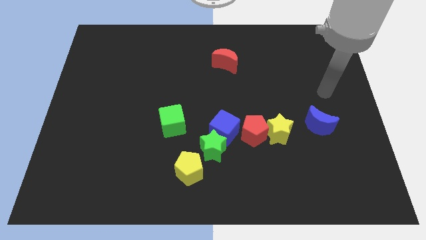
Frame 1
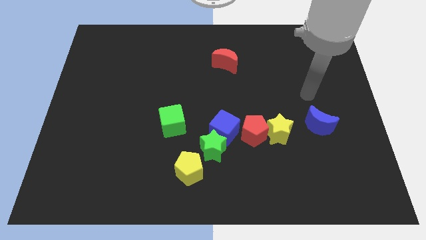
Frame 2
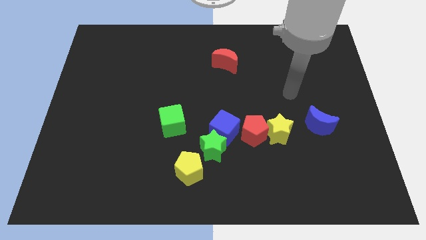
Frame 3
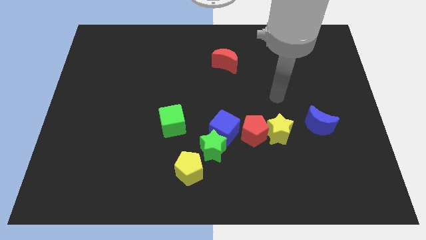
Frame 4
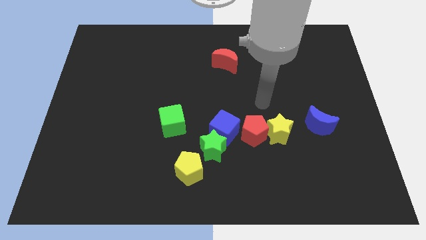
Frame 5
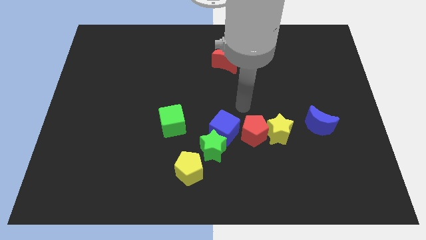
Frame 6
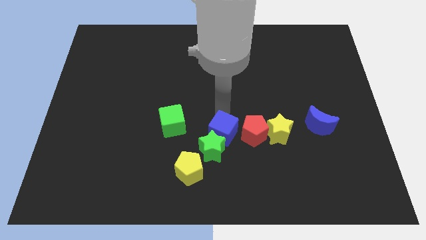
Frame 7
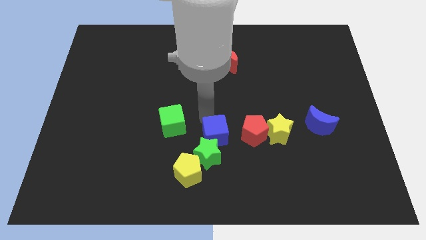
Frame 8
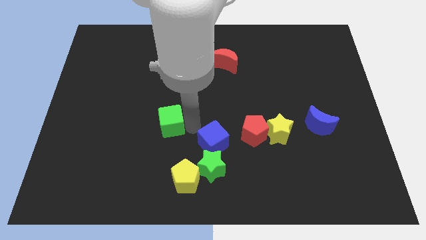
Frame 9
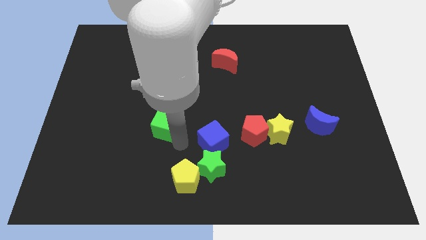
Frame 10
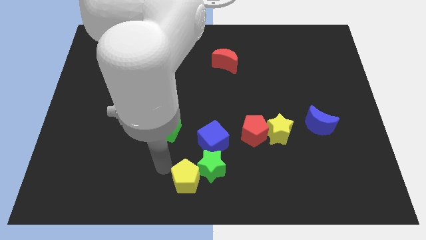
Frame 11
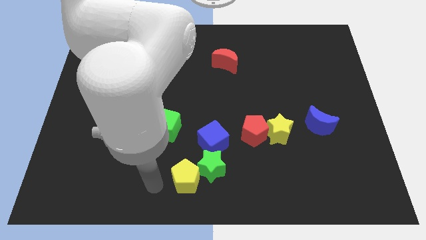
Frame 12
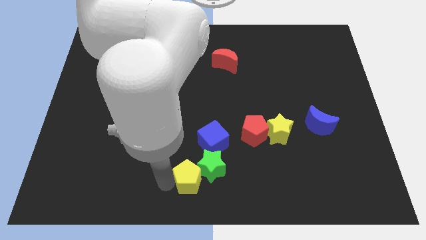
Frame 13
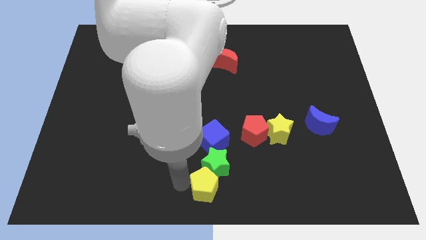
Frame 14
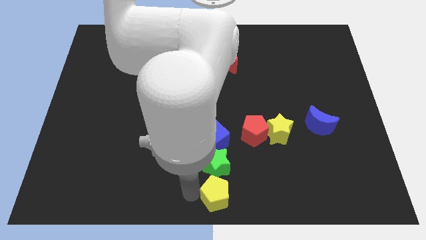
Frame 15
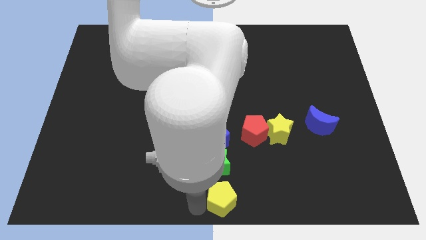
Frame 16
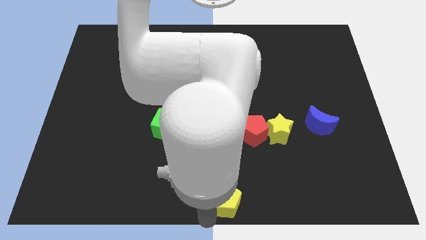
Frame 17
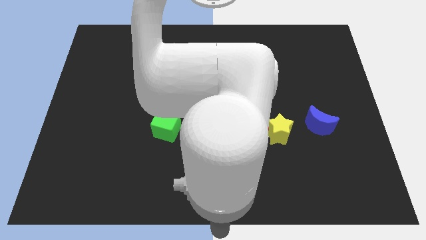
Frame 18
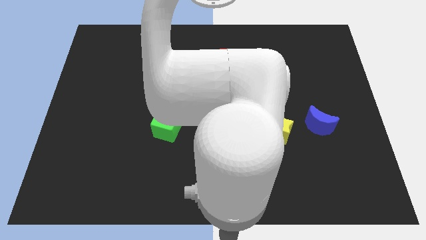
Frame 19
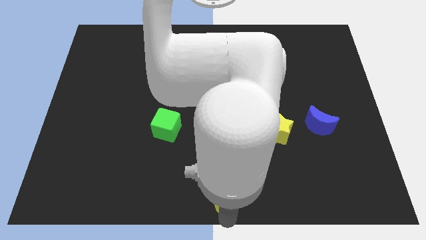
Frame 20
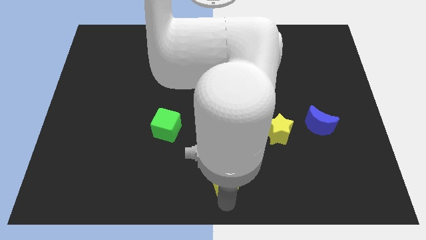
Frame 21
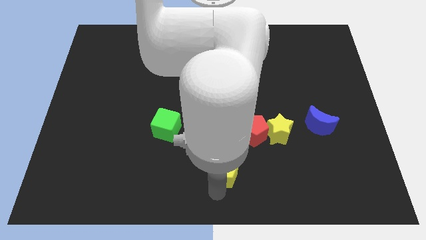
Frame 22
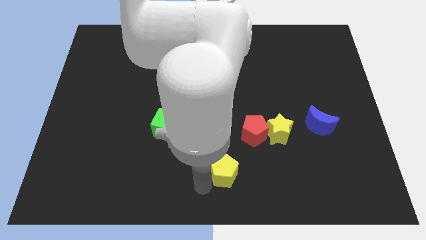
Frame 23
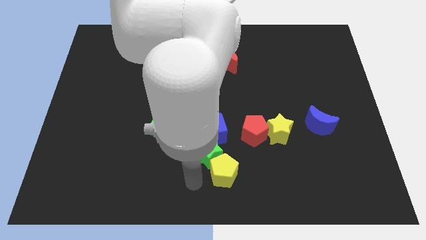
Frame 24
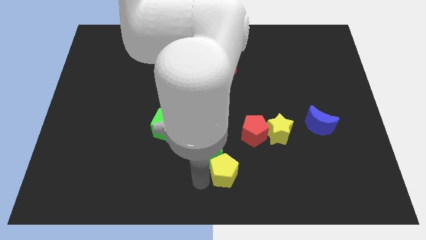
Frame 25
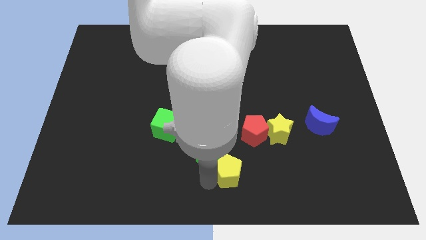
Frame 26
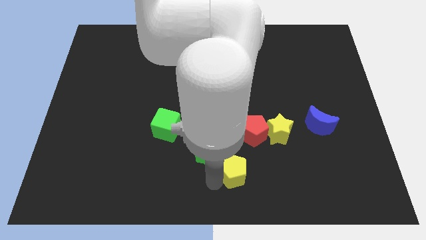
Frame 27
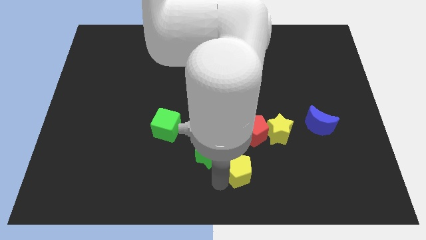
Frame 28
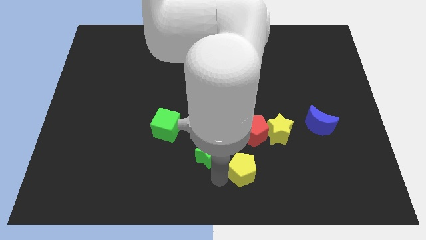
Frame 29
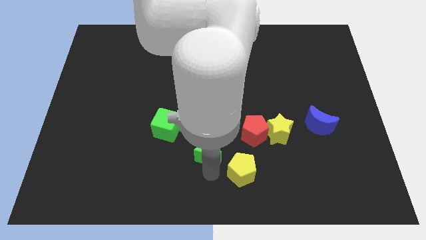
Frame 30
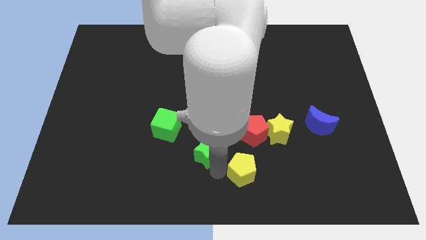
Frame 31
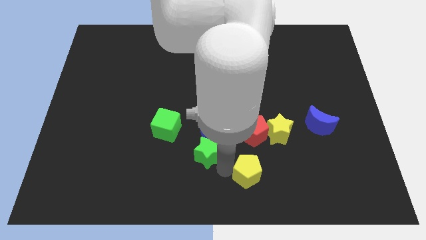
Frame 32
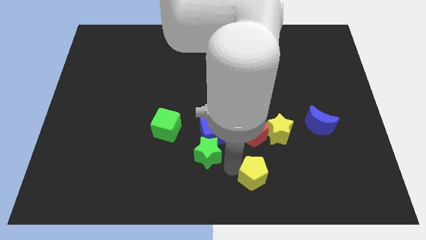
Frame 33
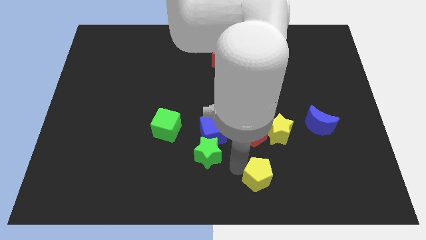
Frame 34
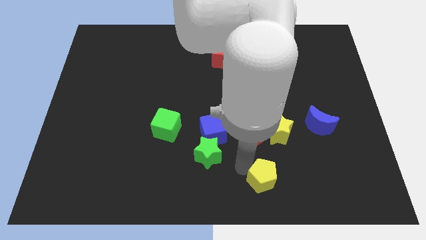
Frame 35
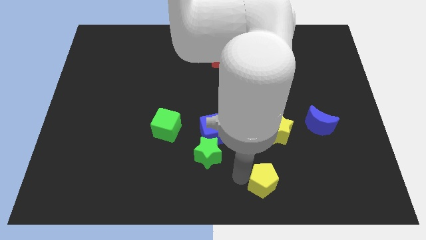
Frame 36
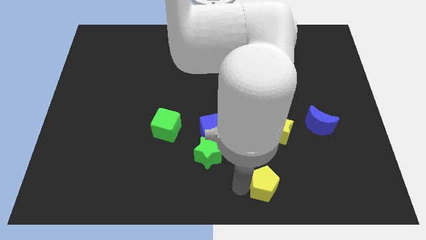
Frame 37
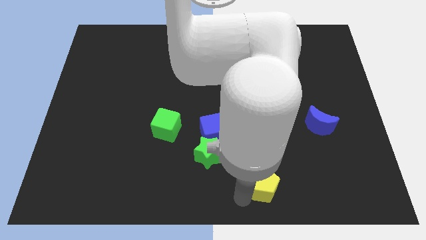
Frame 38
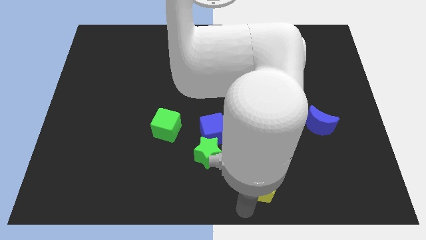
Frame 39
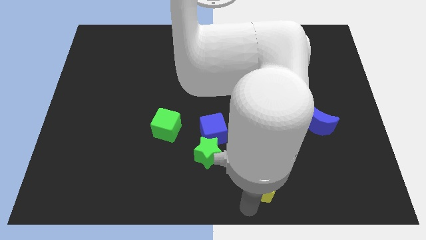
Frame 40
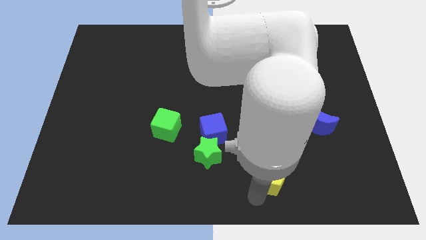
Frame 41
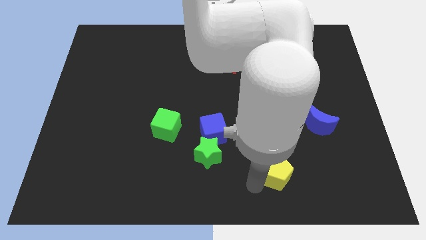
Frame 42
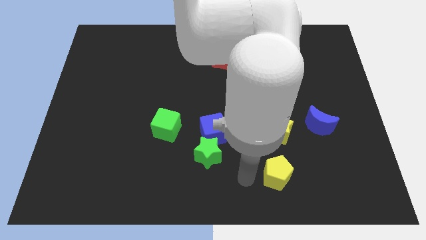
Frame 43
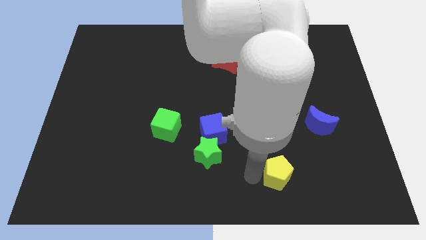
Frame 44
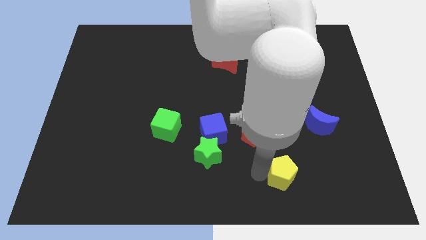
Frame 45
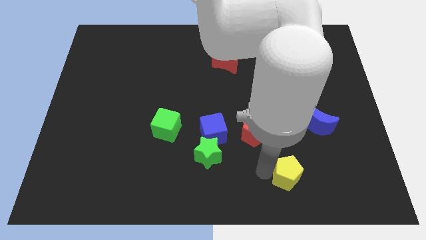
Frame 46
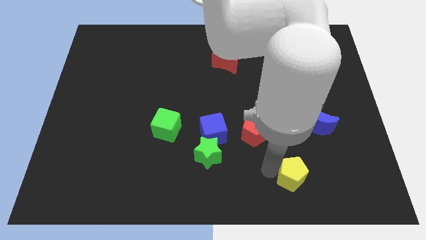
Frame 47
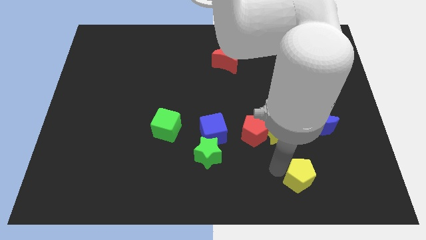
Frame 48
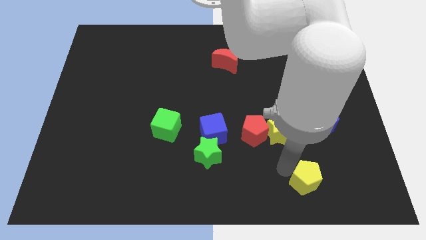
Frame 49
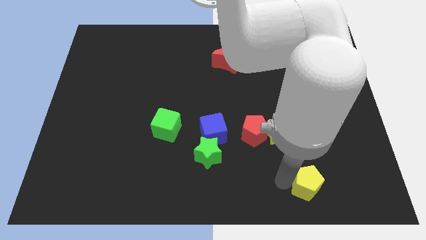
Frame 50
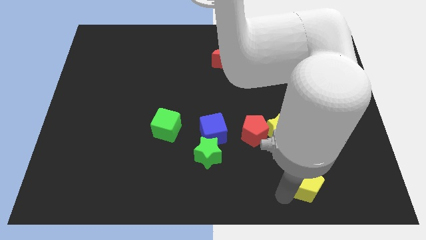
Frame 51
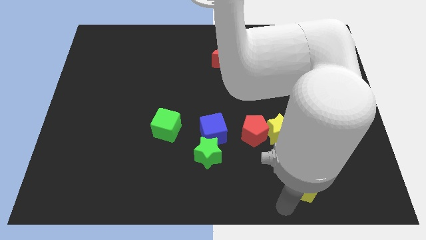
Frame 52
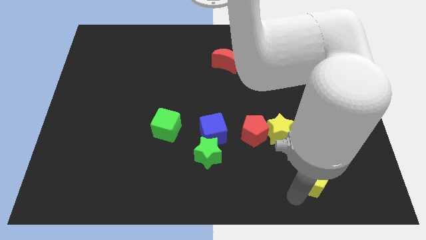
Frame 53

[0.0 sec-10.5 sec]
put the yellow pentagon to the bottom of the blue moon

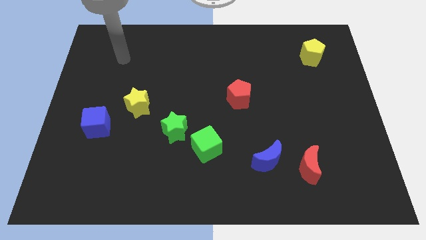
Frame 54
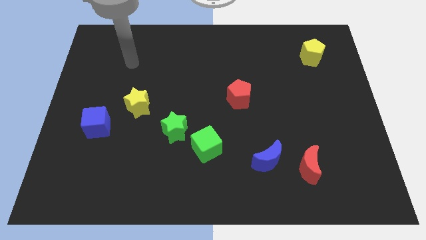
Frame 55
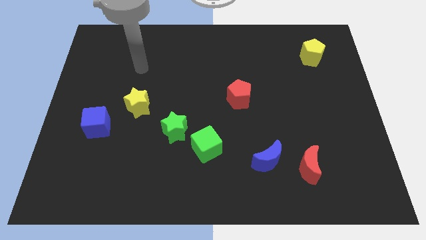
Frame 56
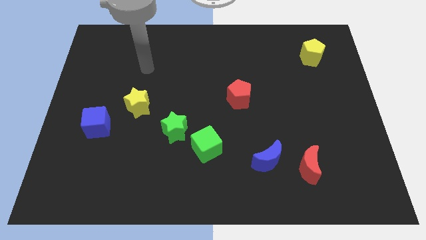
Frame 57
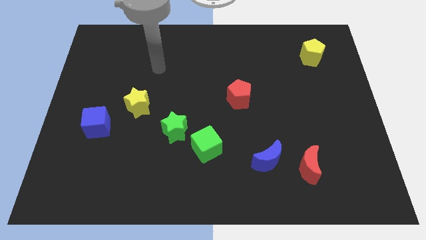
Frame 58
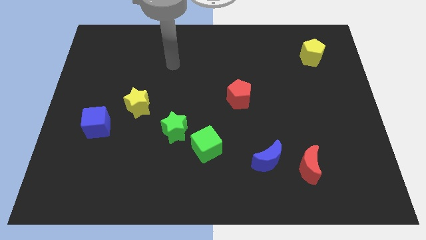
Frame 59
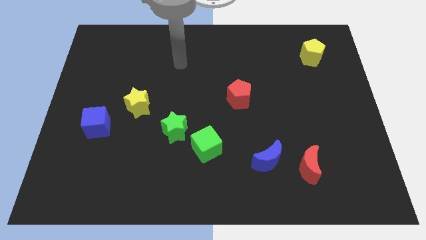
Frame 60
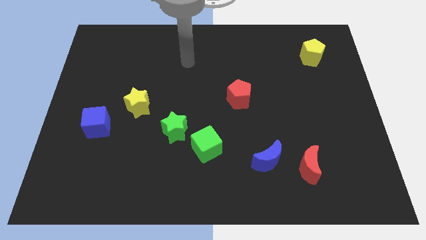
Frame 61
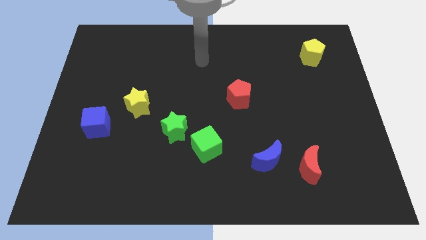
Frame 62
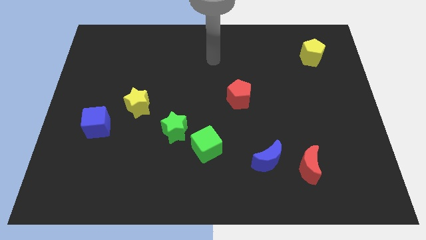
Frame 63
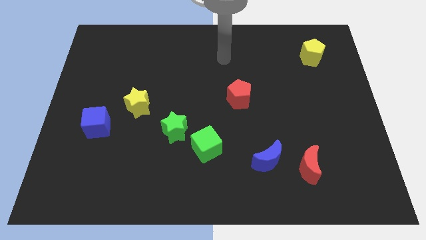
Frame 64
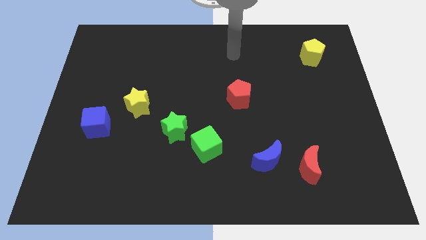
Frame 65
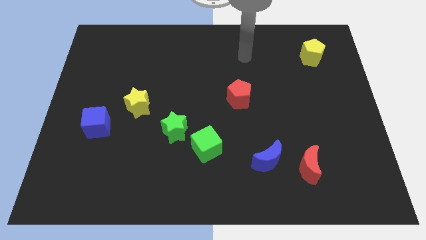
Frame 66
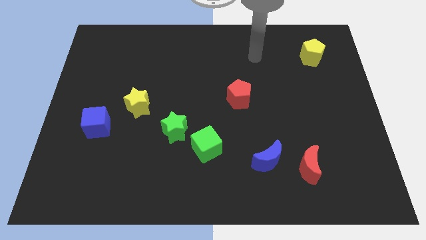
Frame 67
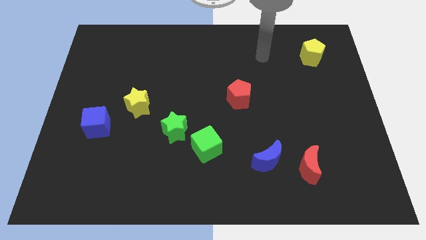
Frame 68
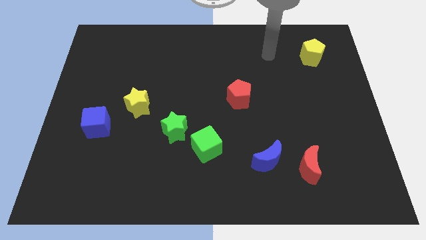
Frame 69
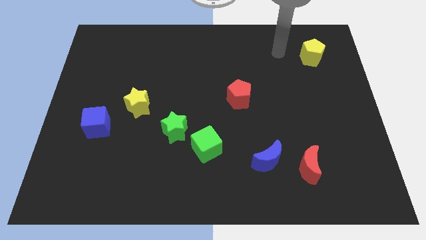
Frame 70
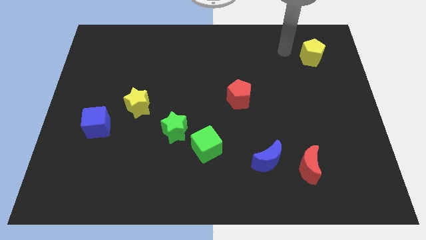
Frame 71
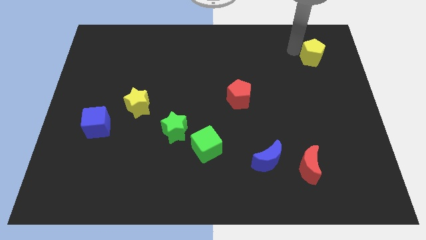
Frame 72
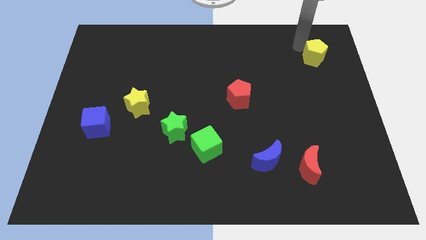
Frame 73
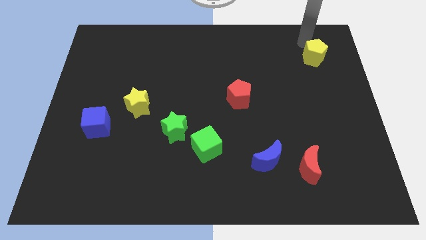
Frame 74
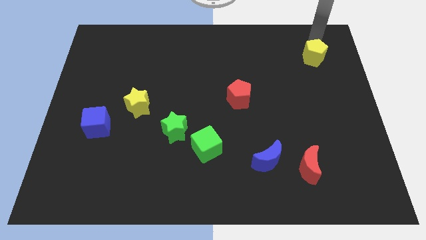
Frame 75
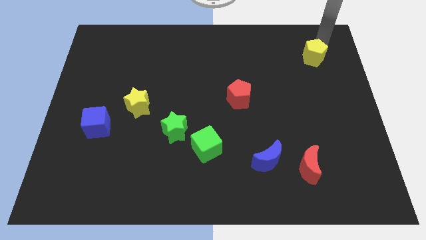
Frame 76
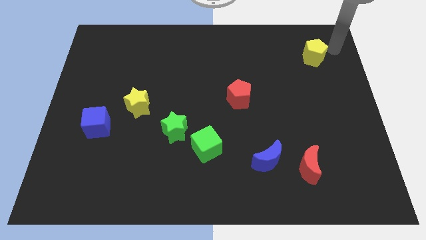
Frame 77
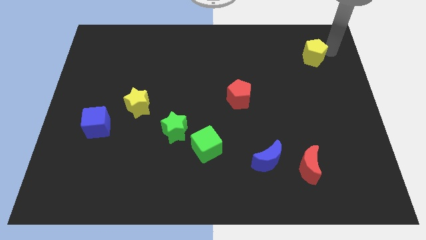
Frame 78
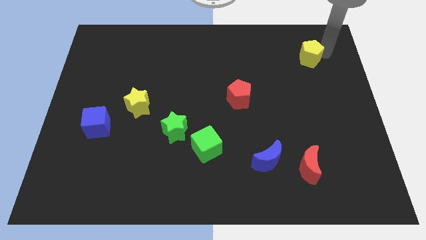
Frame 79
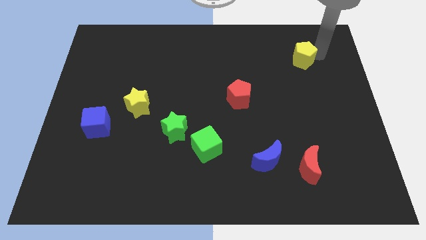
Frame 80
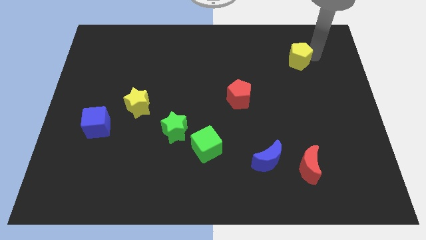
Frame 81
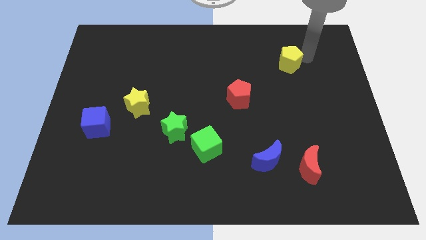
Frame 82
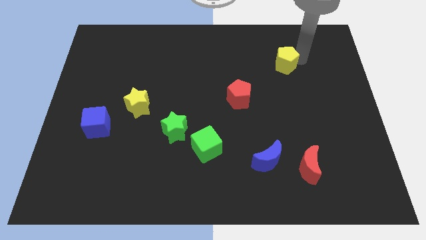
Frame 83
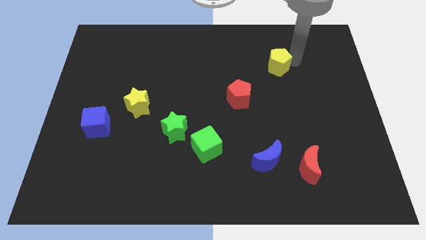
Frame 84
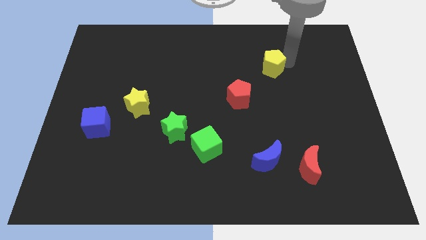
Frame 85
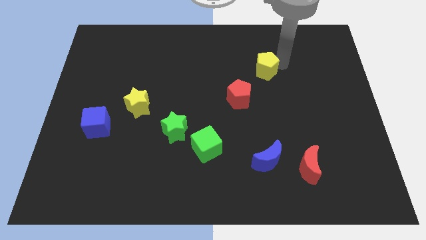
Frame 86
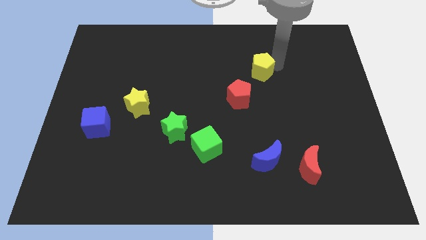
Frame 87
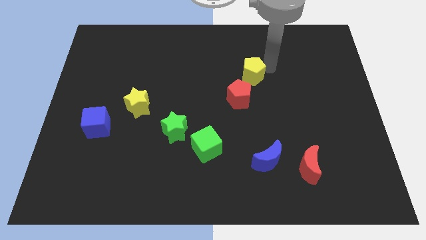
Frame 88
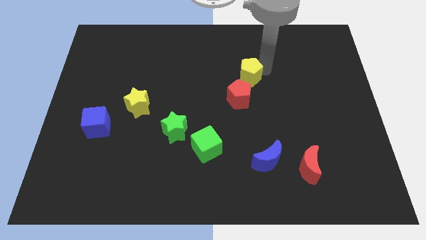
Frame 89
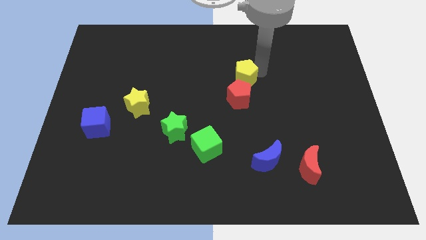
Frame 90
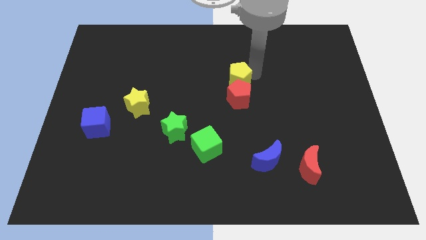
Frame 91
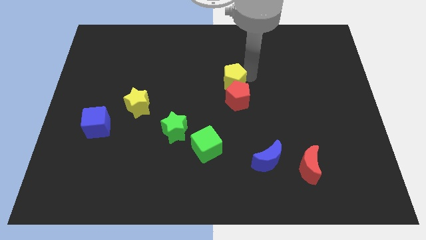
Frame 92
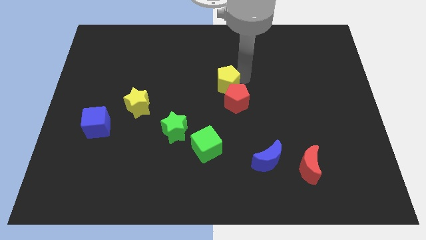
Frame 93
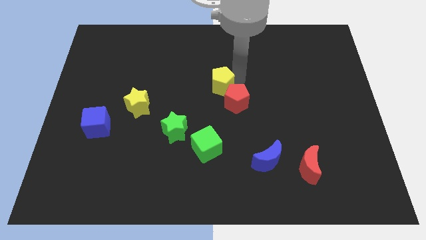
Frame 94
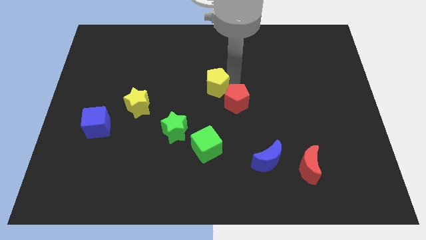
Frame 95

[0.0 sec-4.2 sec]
push the yellow pentagon just left of the red pentagon
